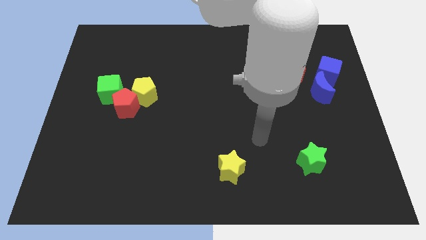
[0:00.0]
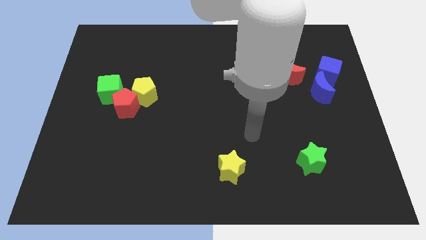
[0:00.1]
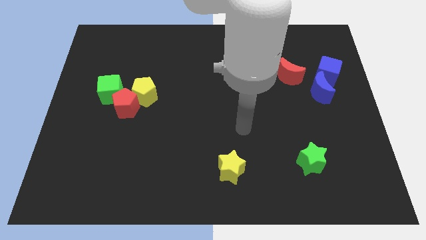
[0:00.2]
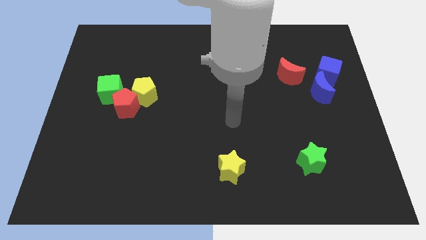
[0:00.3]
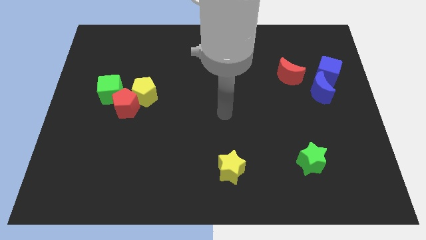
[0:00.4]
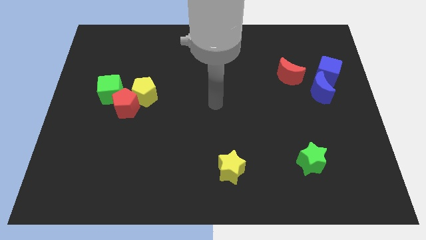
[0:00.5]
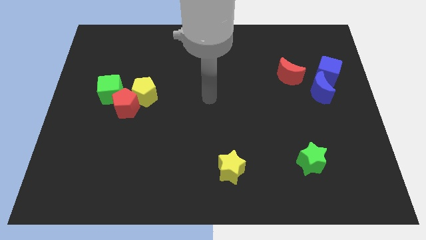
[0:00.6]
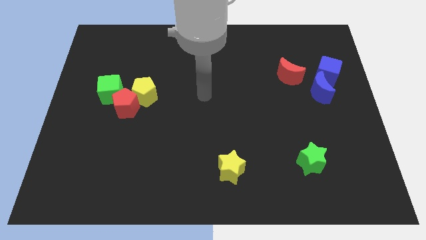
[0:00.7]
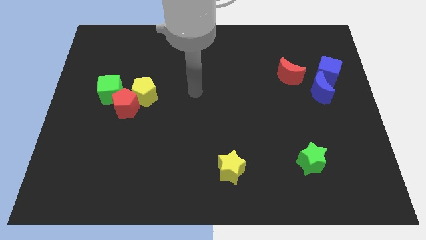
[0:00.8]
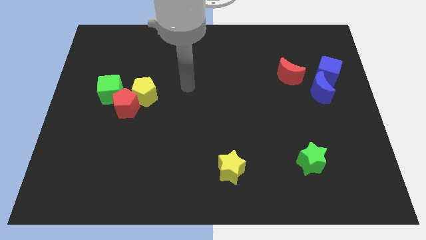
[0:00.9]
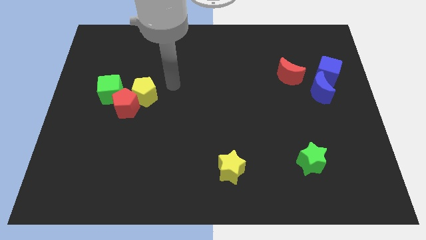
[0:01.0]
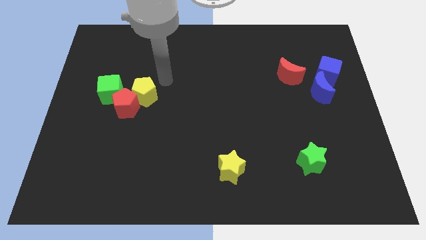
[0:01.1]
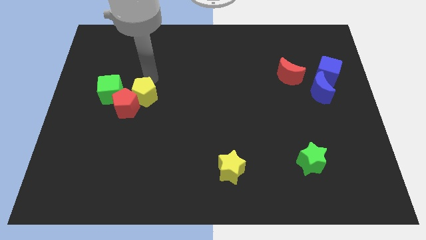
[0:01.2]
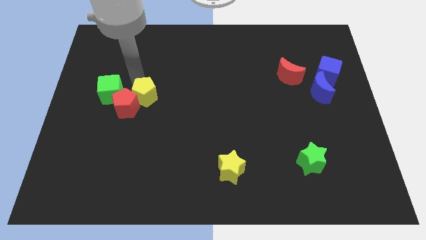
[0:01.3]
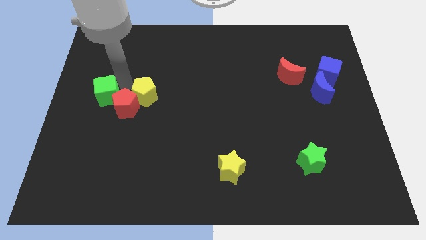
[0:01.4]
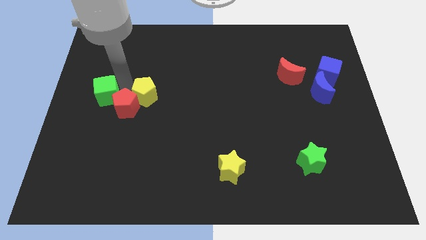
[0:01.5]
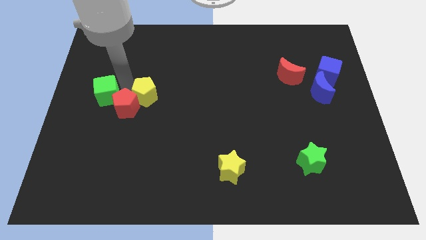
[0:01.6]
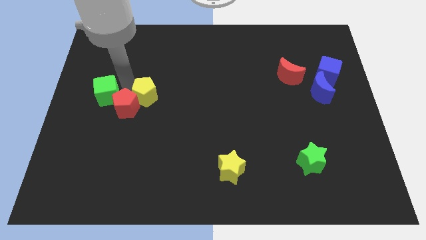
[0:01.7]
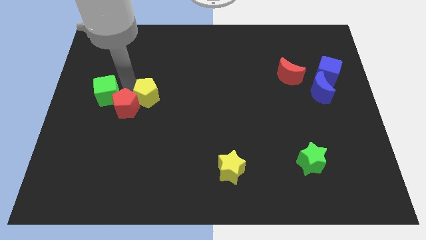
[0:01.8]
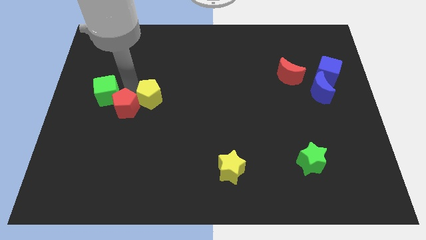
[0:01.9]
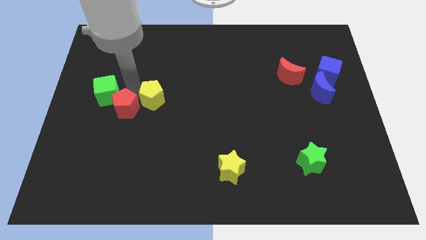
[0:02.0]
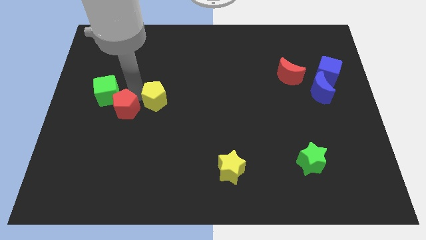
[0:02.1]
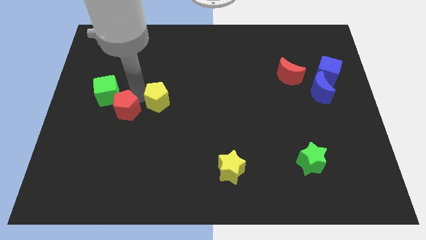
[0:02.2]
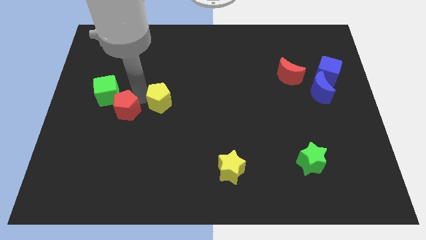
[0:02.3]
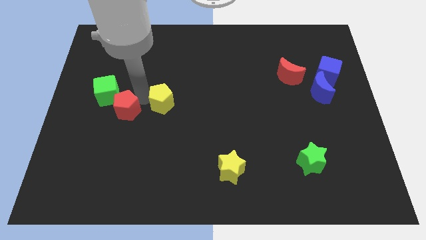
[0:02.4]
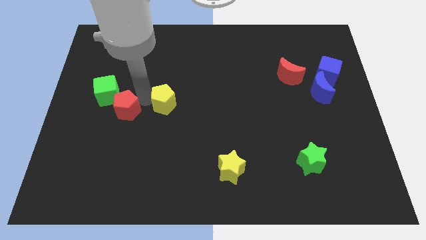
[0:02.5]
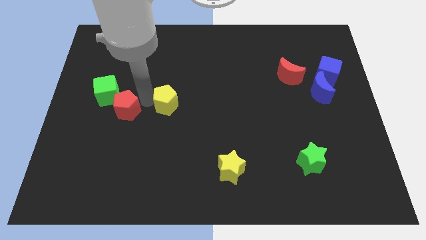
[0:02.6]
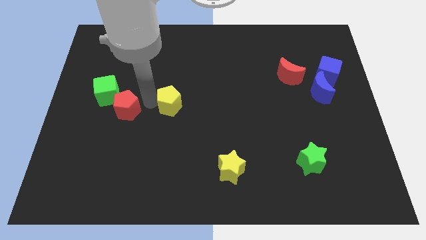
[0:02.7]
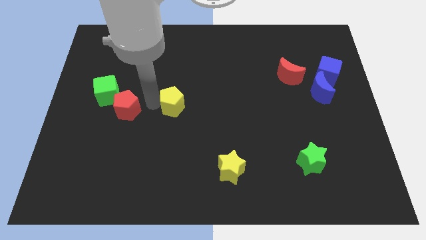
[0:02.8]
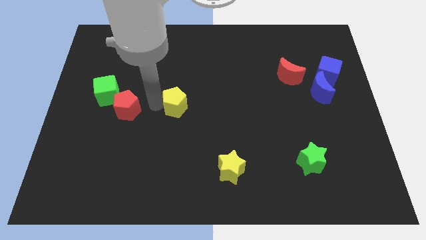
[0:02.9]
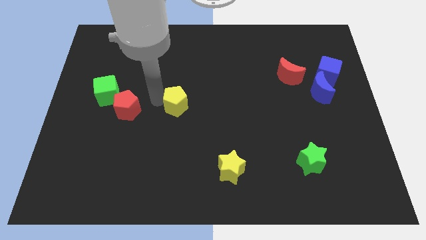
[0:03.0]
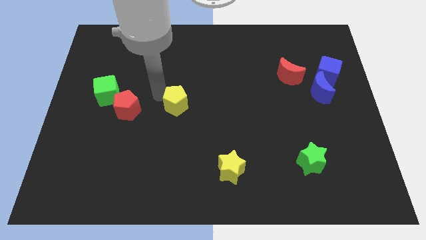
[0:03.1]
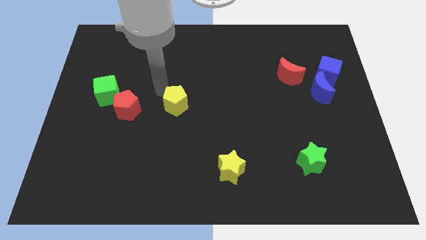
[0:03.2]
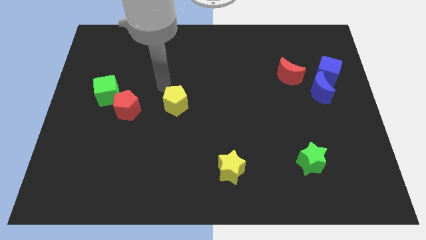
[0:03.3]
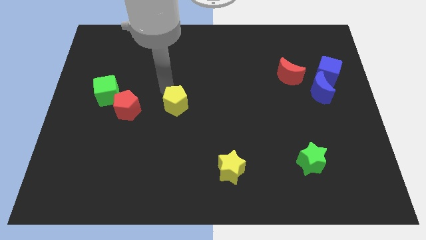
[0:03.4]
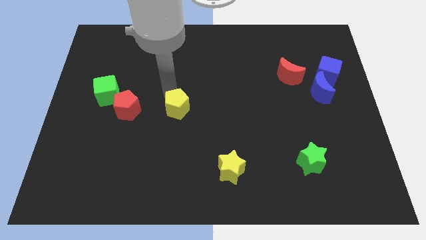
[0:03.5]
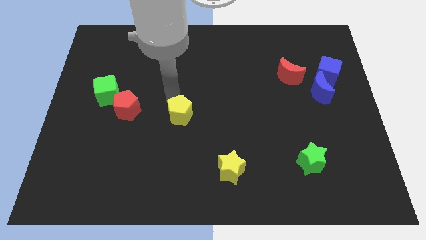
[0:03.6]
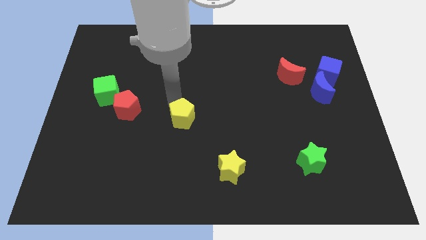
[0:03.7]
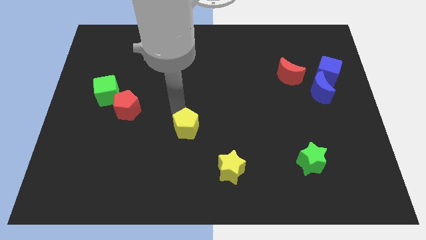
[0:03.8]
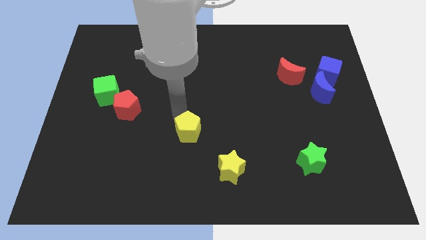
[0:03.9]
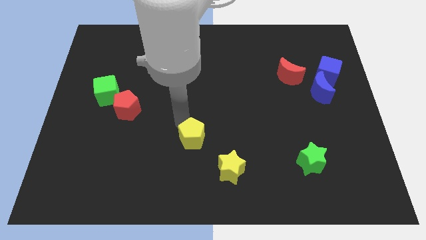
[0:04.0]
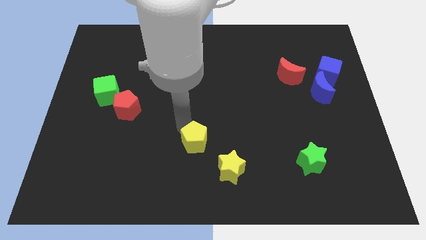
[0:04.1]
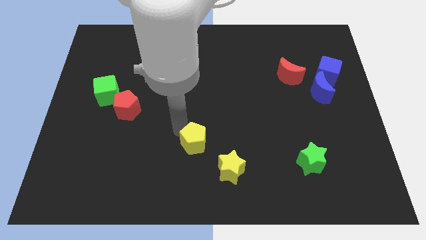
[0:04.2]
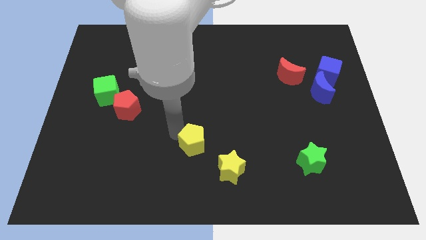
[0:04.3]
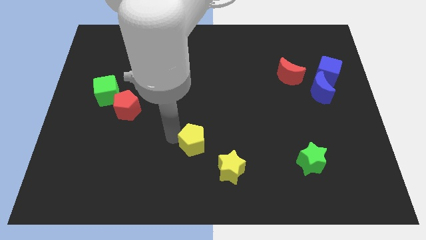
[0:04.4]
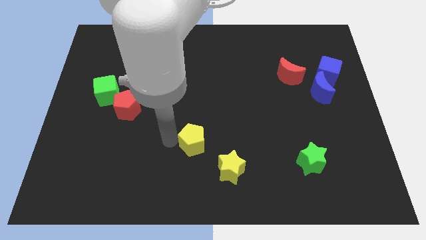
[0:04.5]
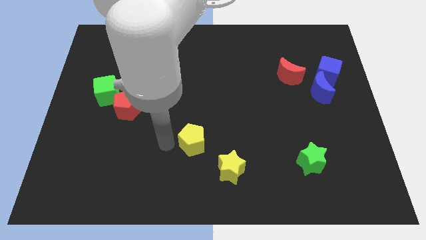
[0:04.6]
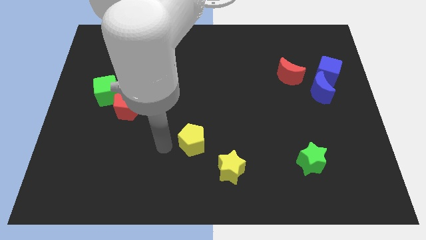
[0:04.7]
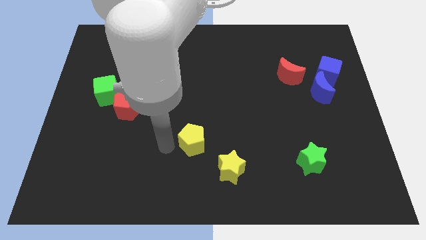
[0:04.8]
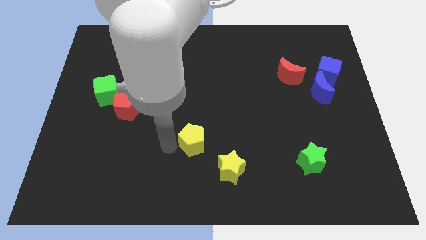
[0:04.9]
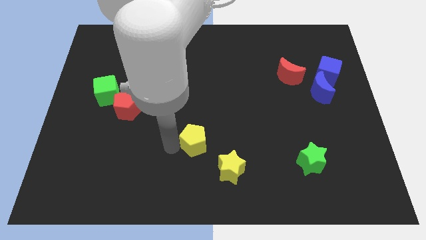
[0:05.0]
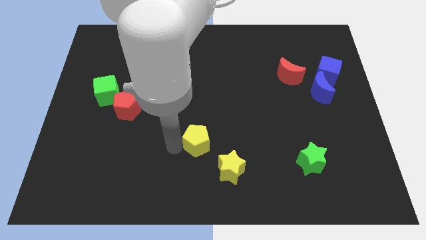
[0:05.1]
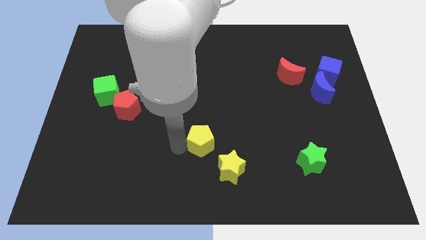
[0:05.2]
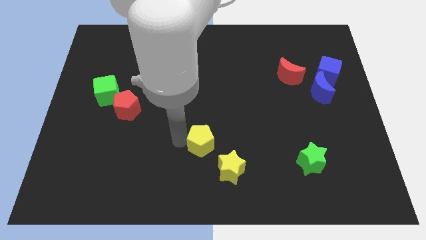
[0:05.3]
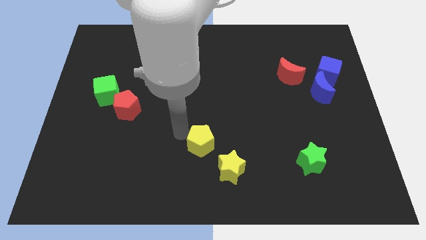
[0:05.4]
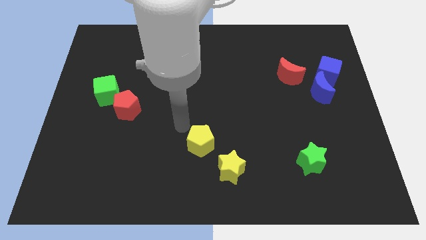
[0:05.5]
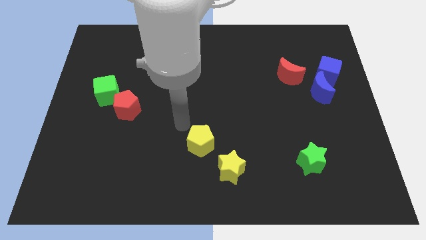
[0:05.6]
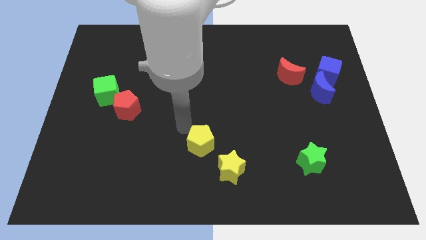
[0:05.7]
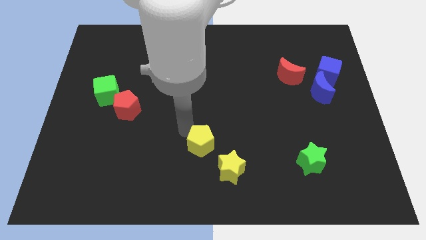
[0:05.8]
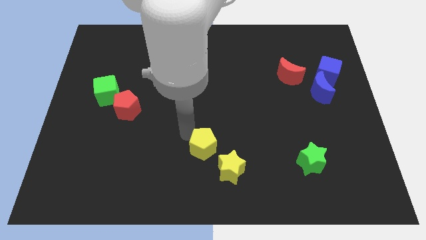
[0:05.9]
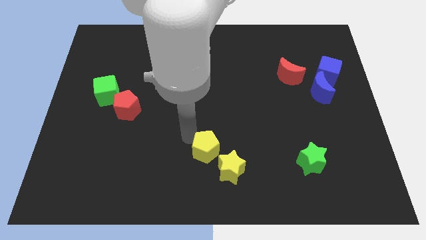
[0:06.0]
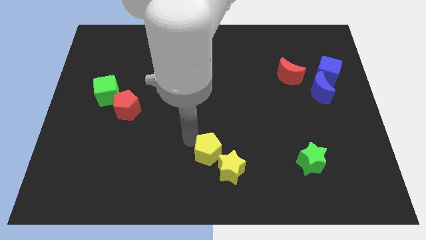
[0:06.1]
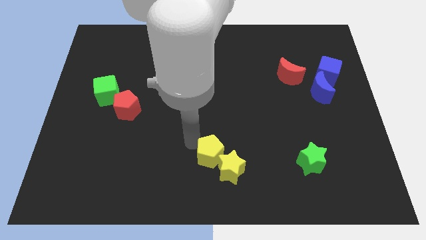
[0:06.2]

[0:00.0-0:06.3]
move the yellow pentagon towards the yellow star

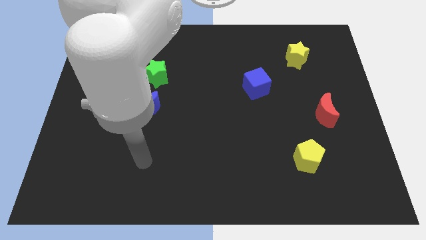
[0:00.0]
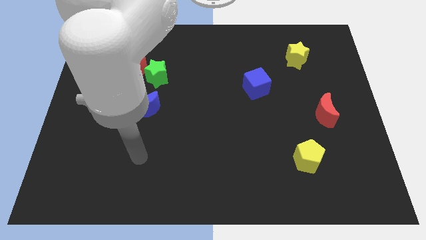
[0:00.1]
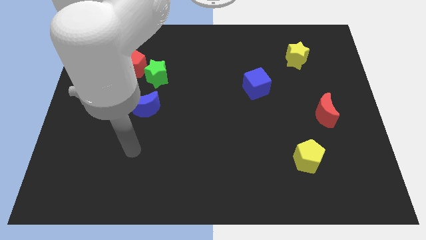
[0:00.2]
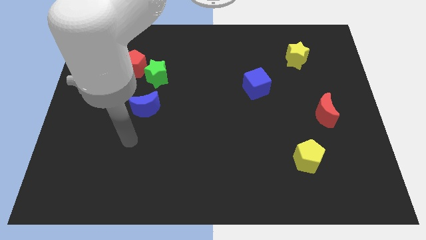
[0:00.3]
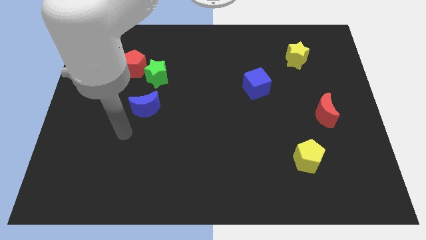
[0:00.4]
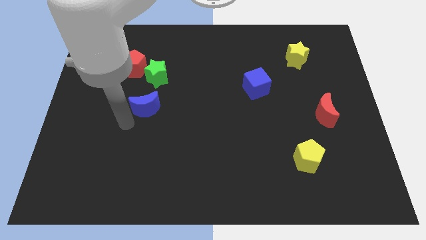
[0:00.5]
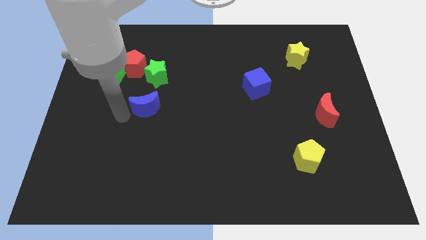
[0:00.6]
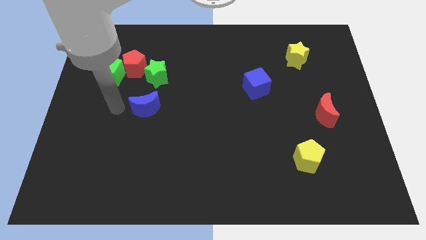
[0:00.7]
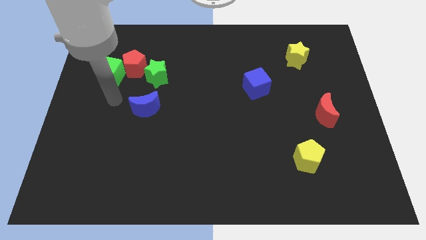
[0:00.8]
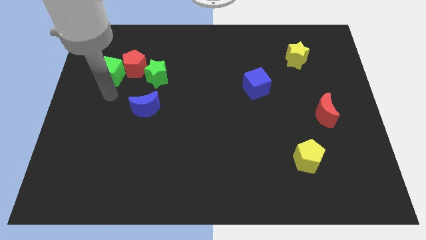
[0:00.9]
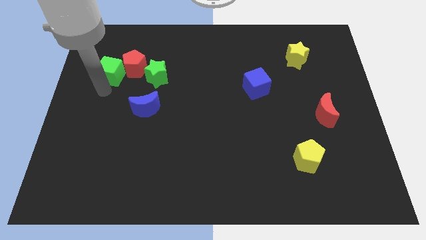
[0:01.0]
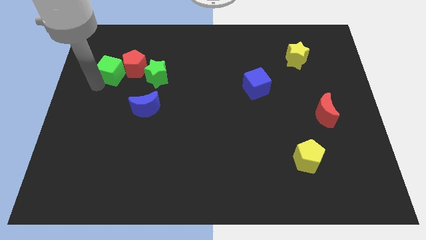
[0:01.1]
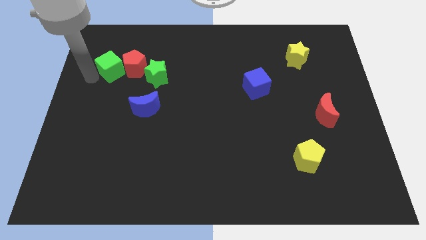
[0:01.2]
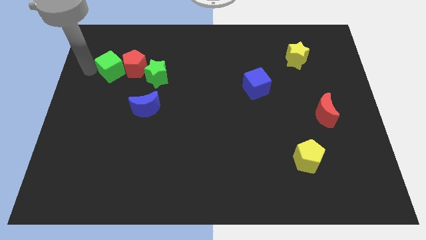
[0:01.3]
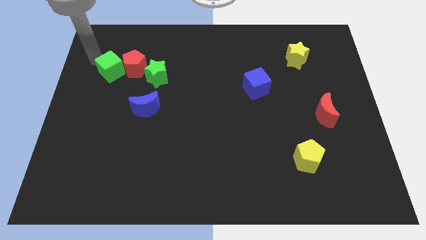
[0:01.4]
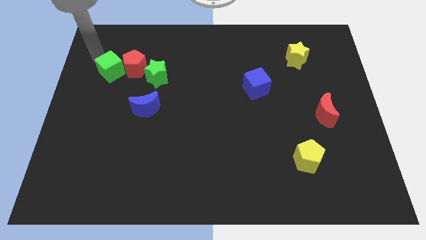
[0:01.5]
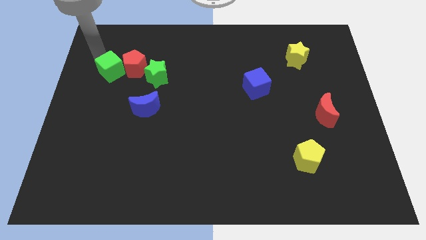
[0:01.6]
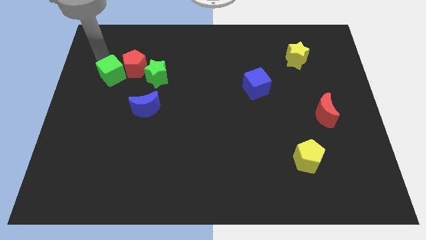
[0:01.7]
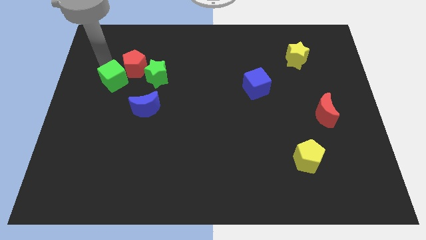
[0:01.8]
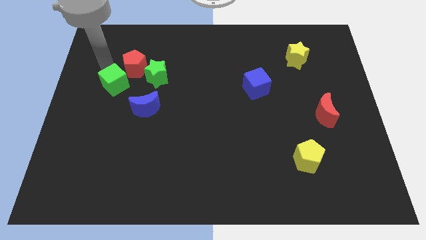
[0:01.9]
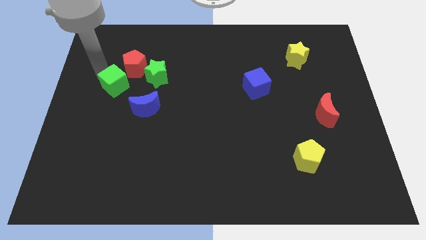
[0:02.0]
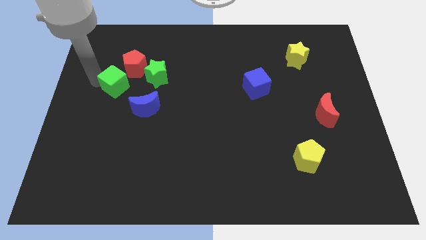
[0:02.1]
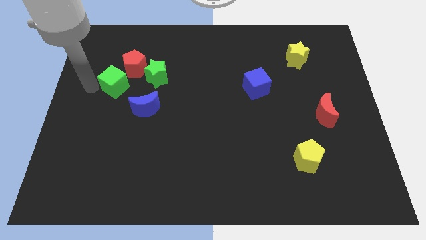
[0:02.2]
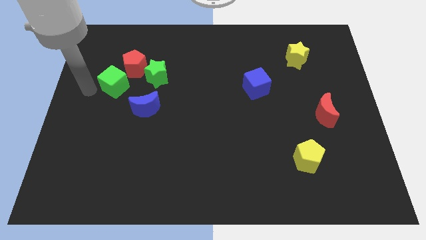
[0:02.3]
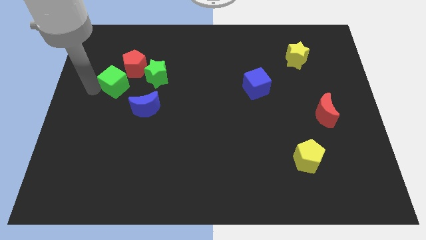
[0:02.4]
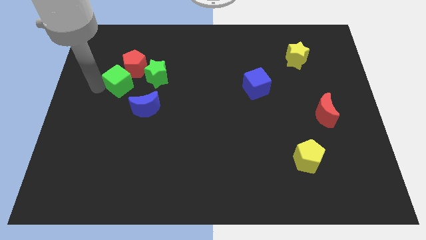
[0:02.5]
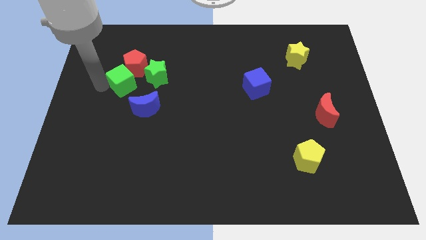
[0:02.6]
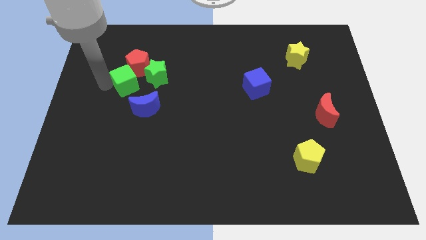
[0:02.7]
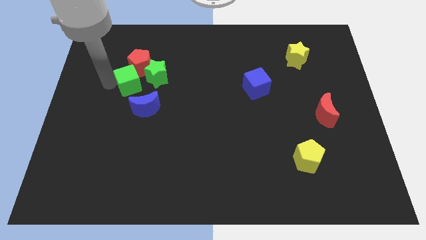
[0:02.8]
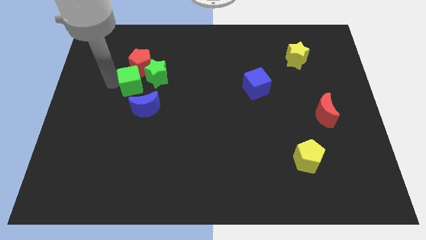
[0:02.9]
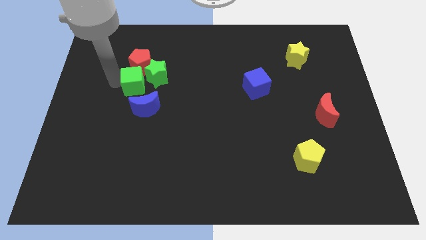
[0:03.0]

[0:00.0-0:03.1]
slide the green cube next to the green star
